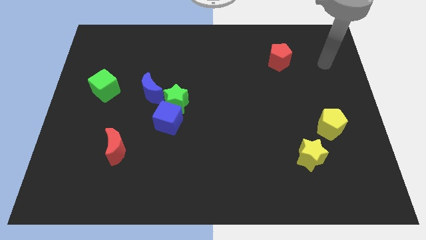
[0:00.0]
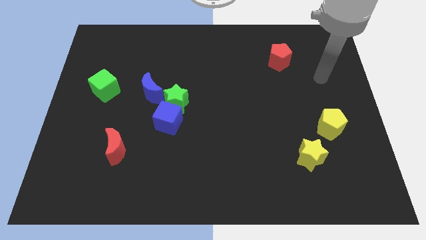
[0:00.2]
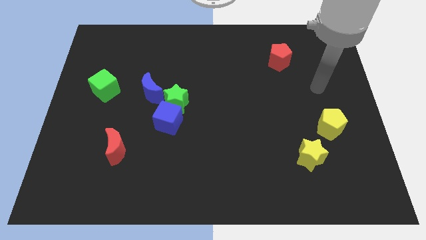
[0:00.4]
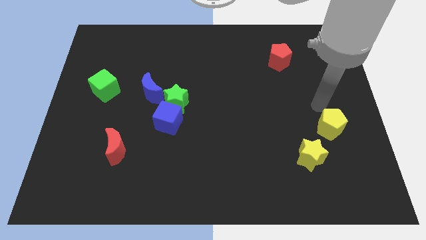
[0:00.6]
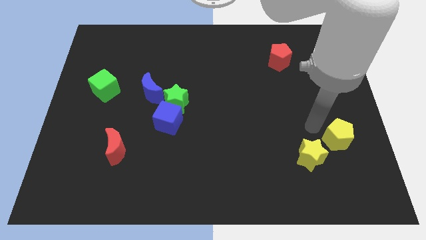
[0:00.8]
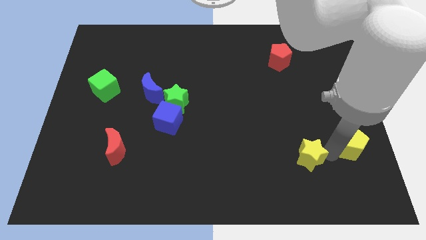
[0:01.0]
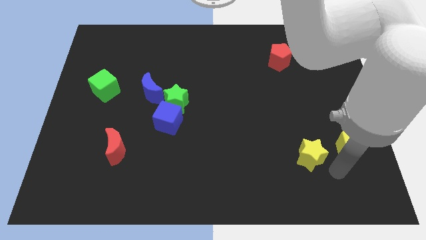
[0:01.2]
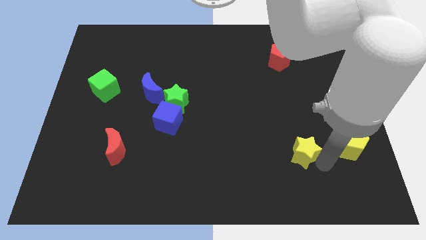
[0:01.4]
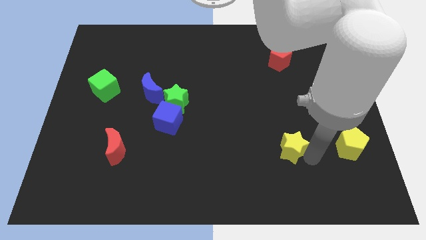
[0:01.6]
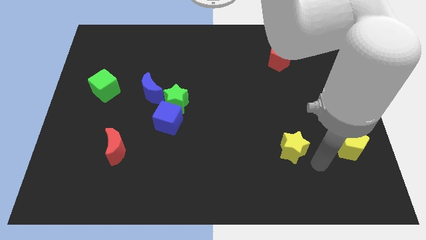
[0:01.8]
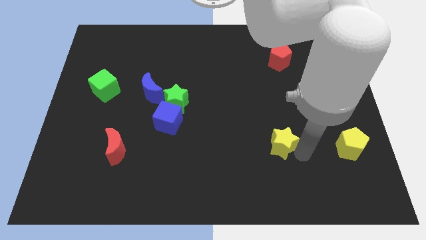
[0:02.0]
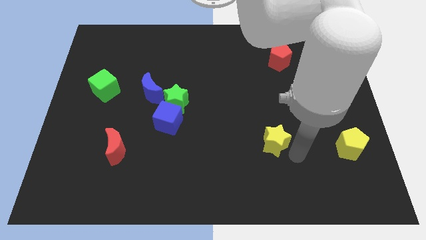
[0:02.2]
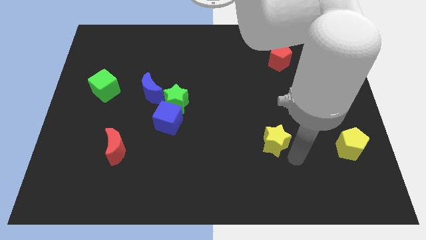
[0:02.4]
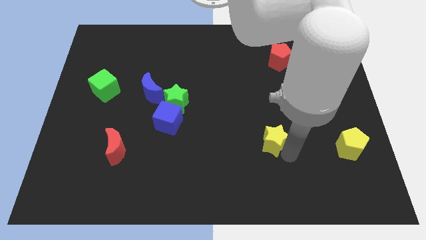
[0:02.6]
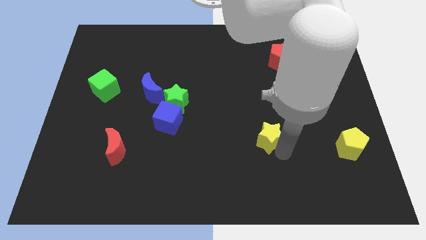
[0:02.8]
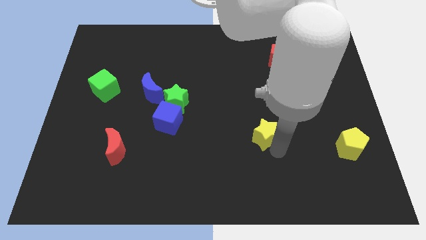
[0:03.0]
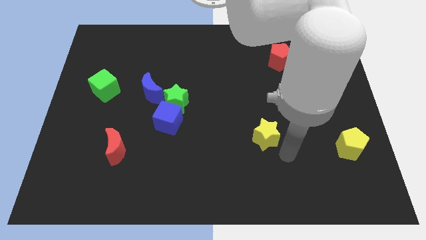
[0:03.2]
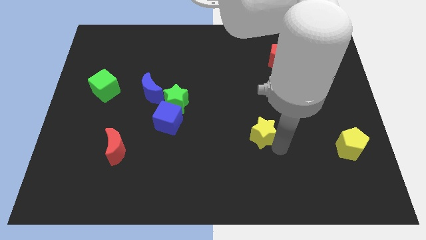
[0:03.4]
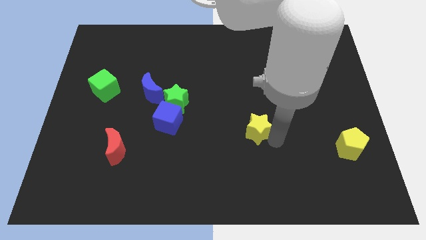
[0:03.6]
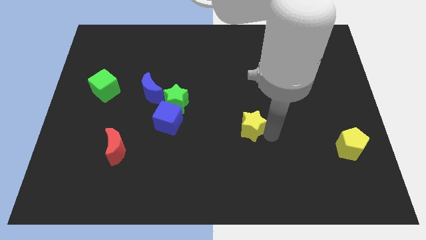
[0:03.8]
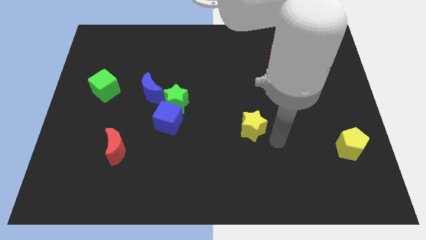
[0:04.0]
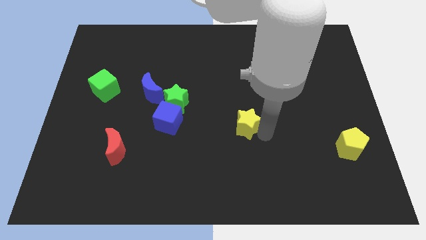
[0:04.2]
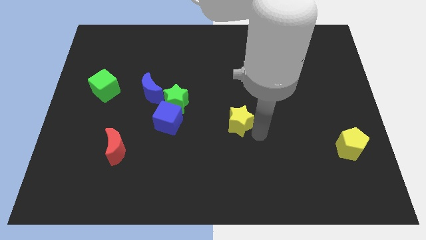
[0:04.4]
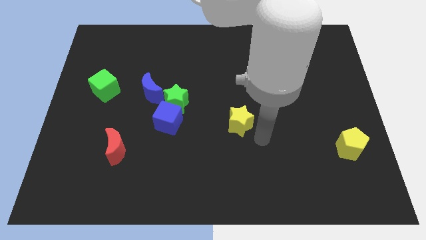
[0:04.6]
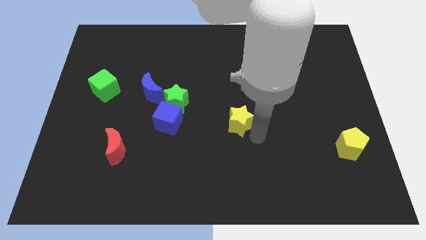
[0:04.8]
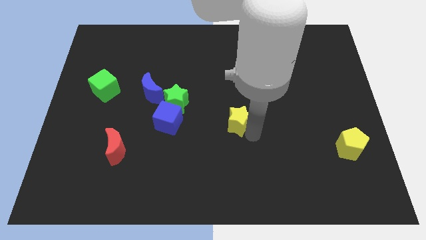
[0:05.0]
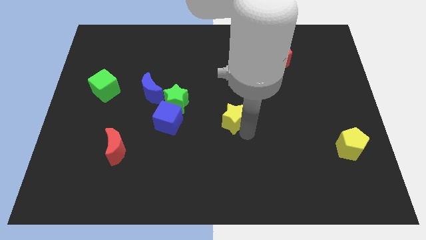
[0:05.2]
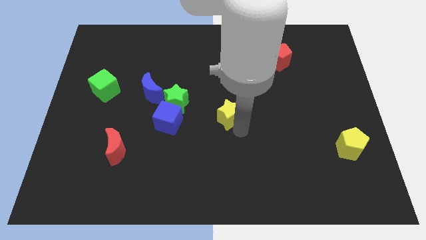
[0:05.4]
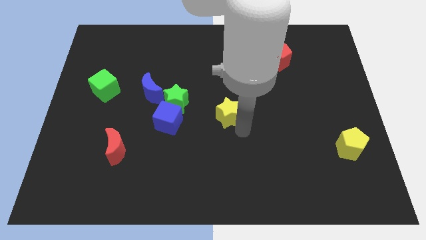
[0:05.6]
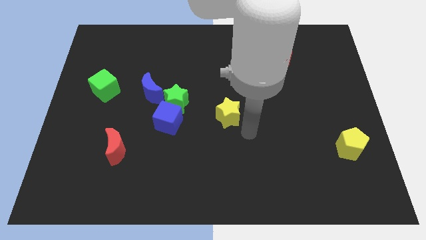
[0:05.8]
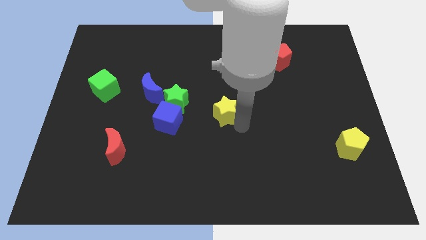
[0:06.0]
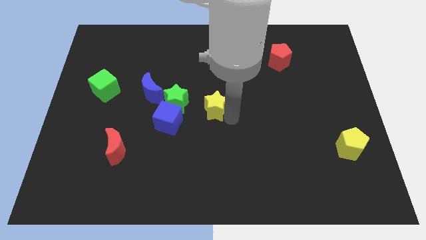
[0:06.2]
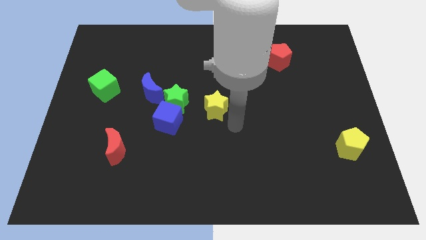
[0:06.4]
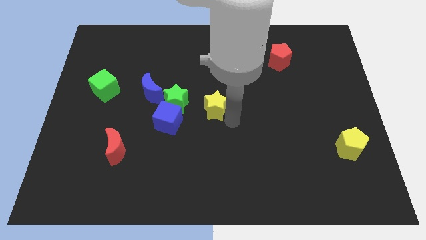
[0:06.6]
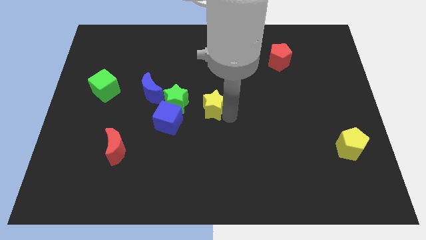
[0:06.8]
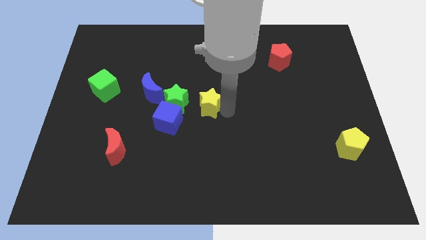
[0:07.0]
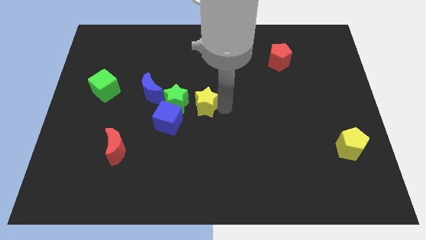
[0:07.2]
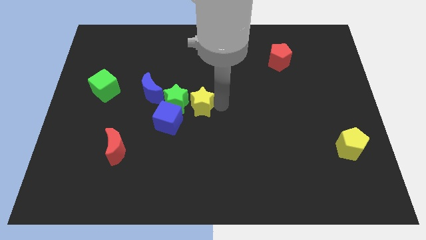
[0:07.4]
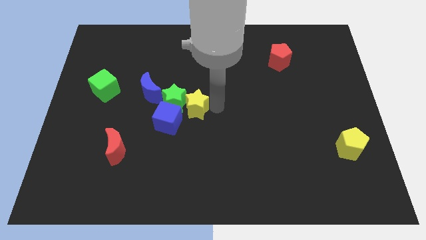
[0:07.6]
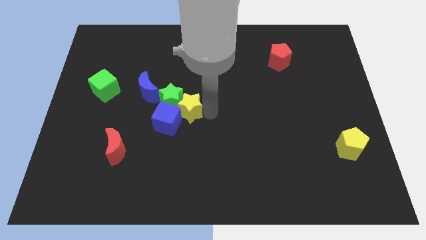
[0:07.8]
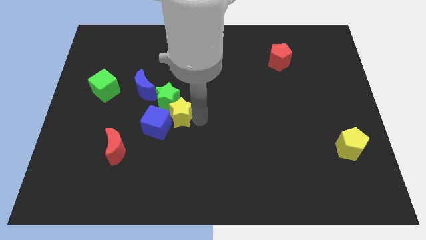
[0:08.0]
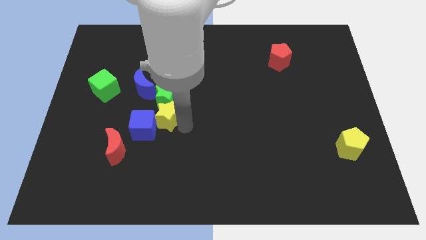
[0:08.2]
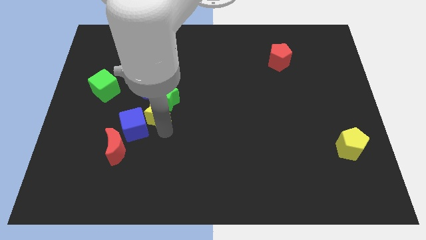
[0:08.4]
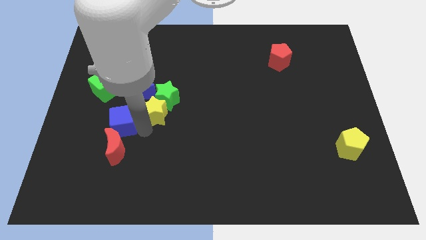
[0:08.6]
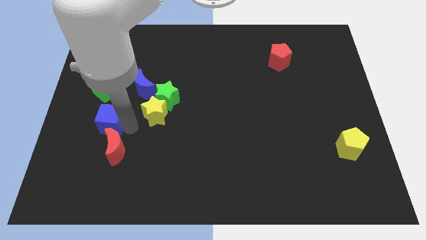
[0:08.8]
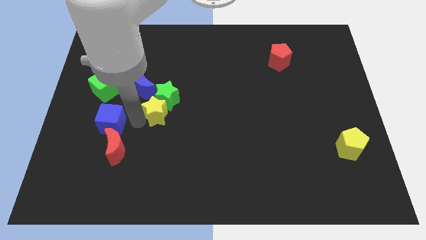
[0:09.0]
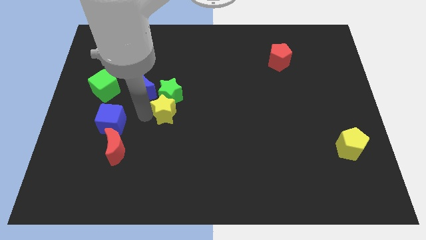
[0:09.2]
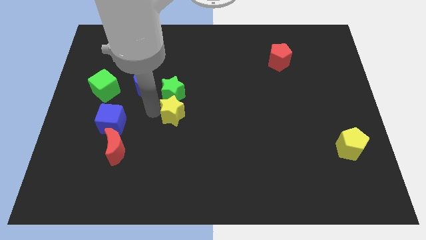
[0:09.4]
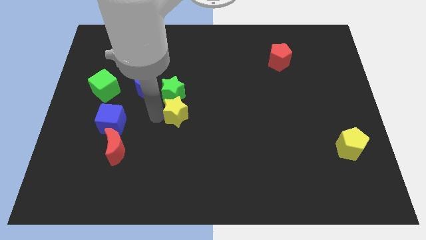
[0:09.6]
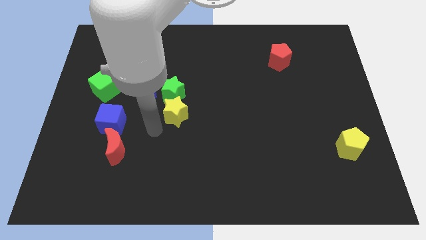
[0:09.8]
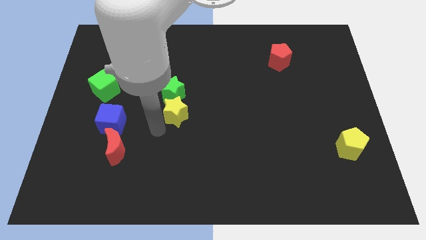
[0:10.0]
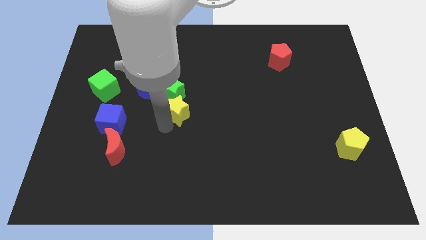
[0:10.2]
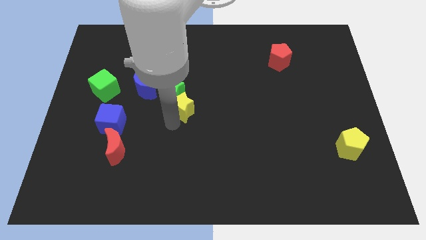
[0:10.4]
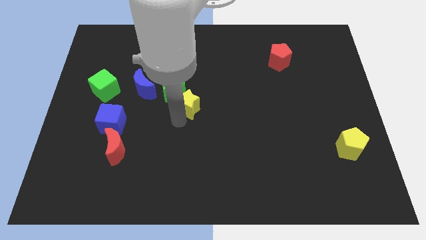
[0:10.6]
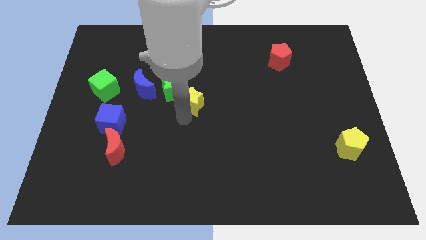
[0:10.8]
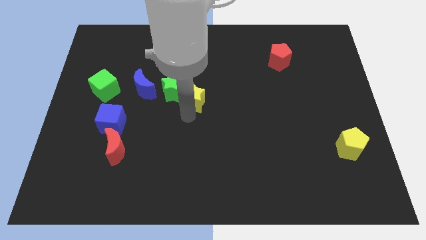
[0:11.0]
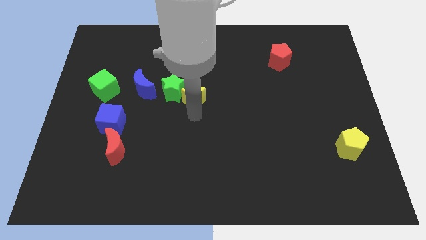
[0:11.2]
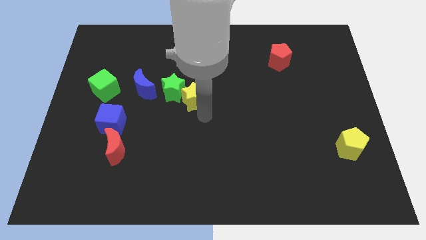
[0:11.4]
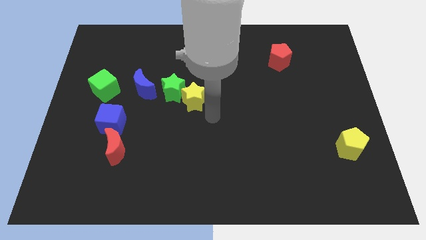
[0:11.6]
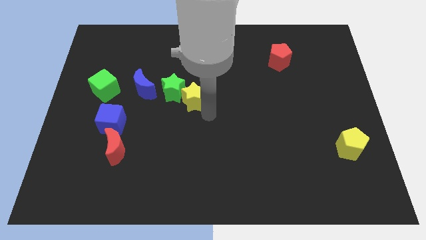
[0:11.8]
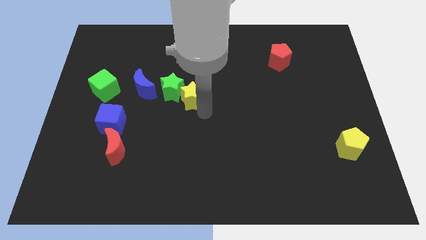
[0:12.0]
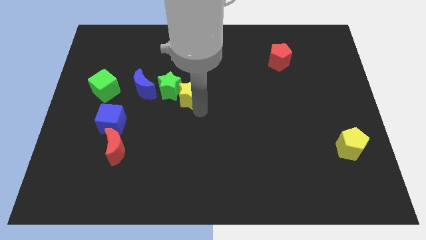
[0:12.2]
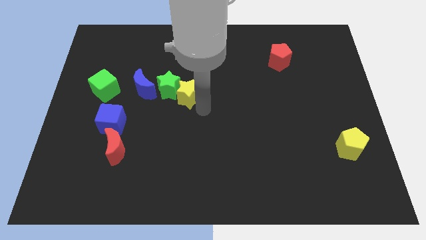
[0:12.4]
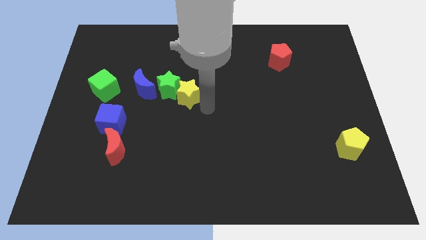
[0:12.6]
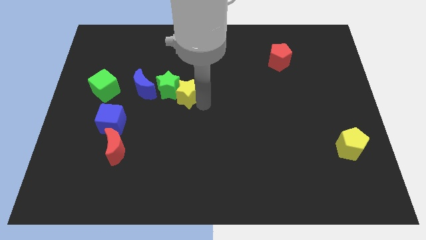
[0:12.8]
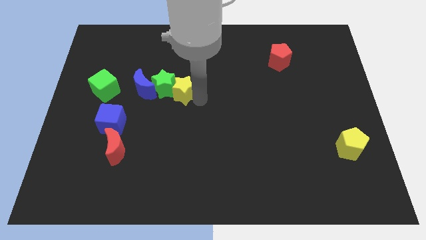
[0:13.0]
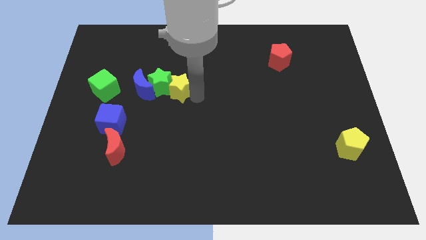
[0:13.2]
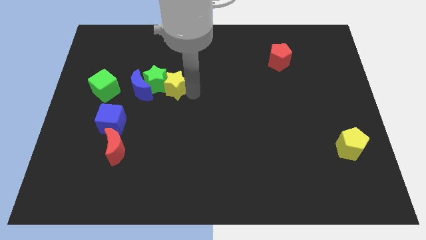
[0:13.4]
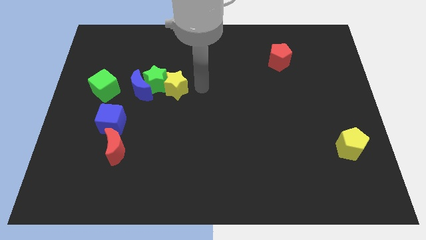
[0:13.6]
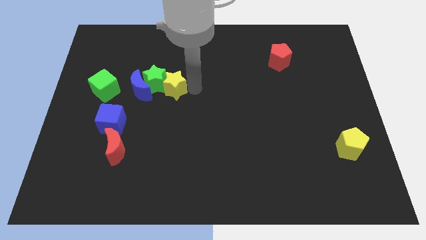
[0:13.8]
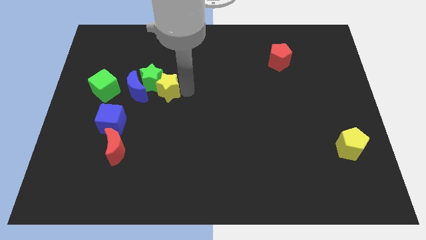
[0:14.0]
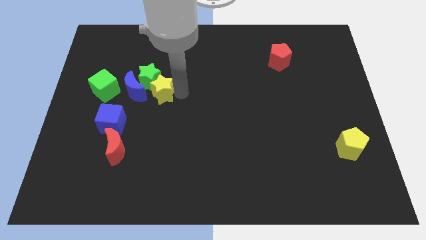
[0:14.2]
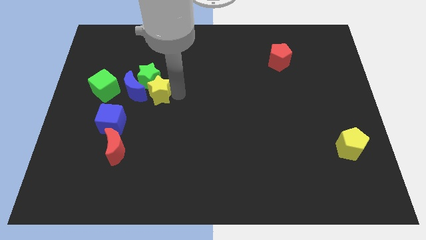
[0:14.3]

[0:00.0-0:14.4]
move the yellow star next to the blue moon

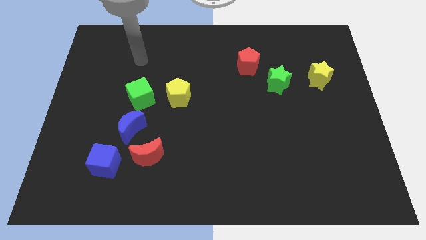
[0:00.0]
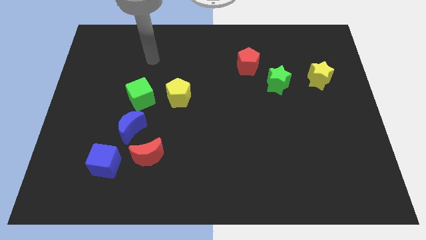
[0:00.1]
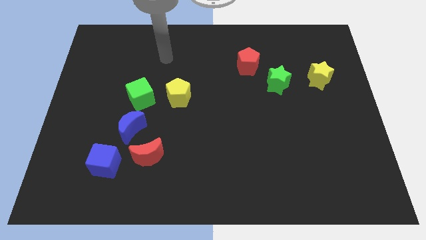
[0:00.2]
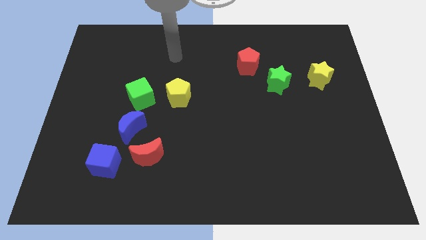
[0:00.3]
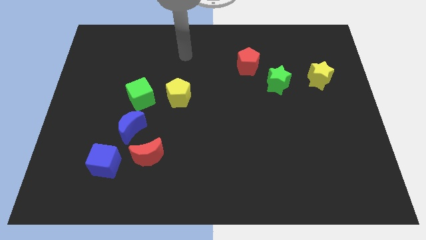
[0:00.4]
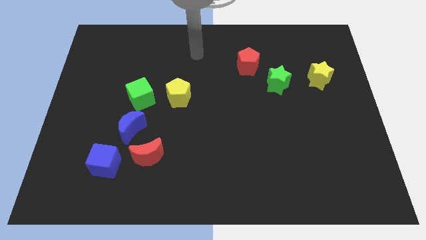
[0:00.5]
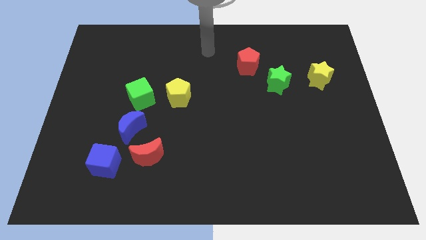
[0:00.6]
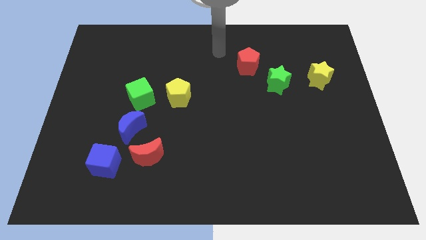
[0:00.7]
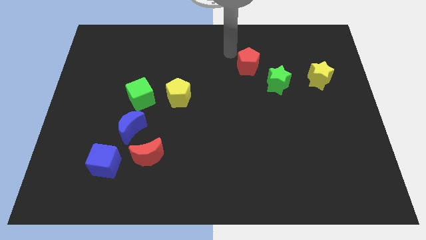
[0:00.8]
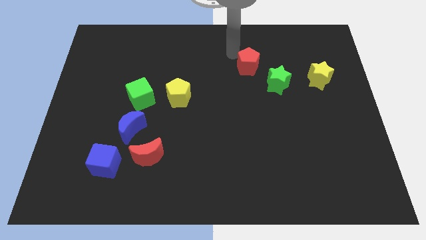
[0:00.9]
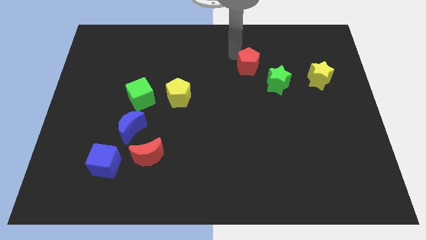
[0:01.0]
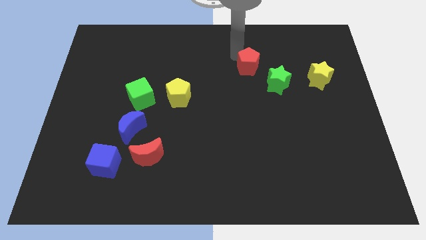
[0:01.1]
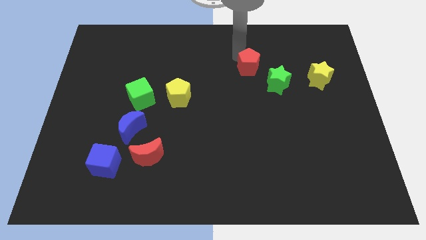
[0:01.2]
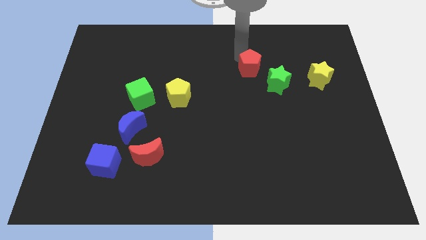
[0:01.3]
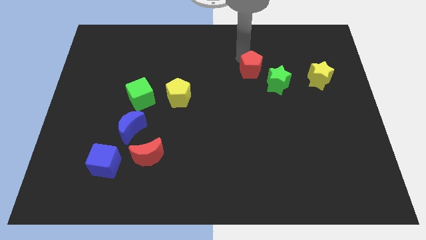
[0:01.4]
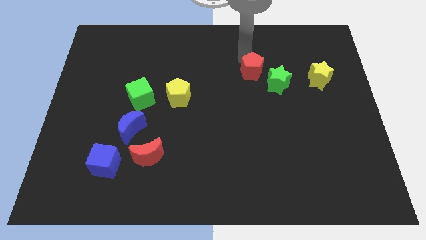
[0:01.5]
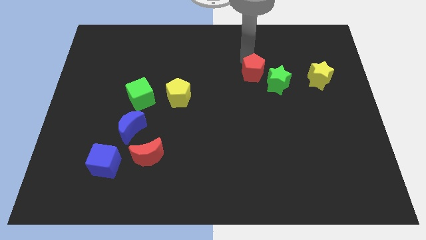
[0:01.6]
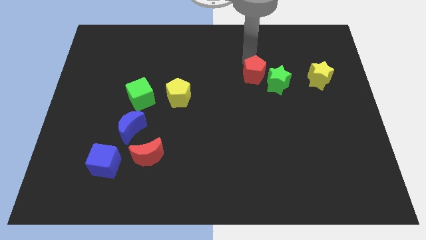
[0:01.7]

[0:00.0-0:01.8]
slide the red pentagon towards the green star
